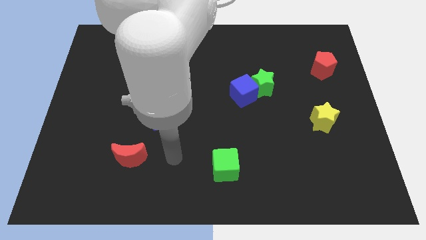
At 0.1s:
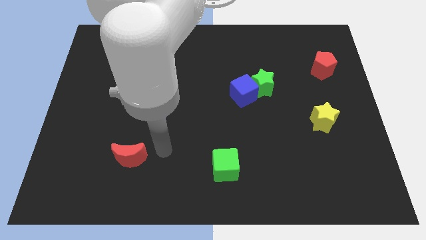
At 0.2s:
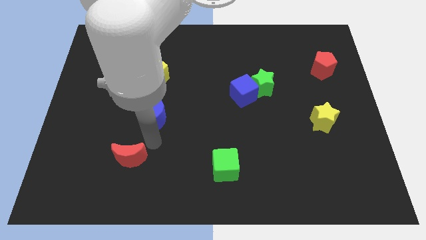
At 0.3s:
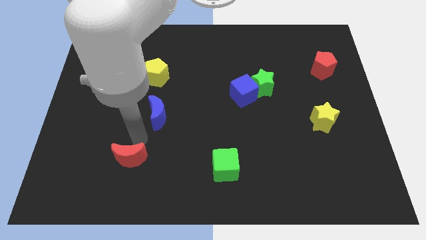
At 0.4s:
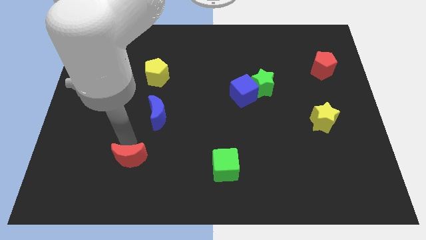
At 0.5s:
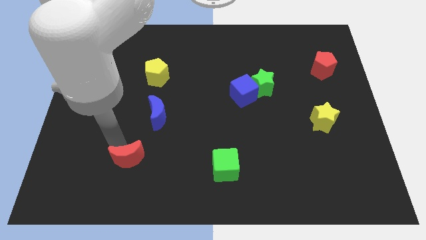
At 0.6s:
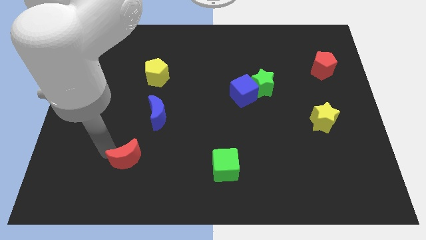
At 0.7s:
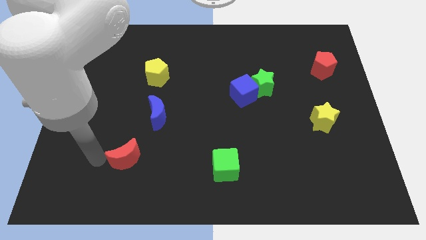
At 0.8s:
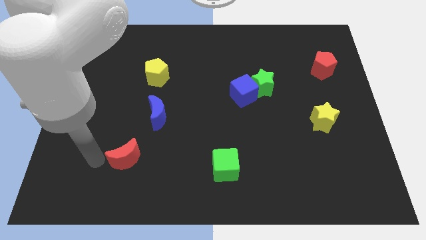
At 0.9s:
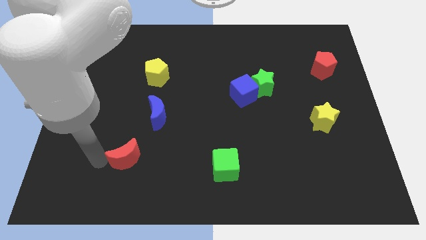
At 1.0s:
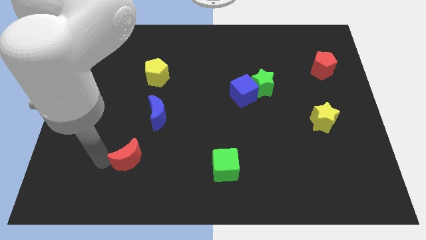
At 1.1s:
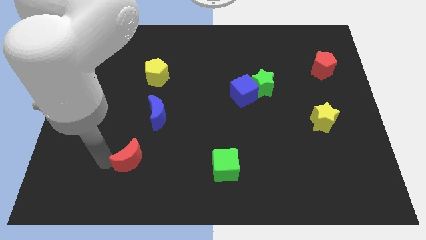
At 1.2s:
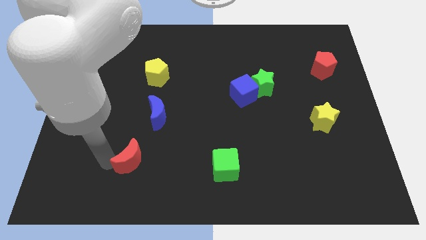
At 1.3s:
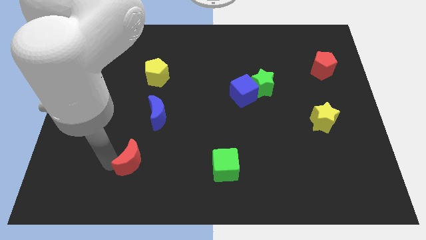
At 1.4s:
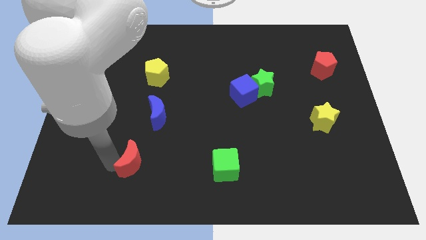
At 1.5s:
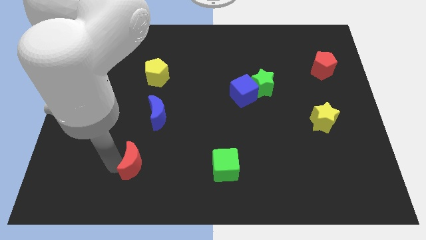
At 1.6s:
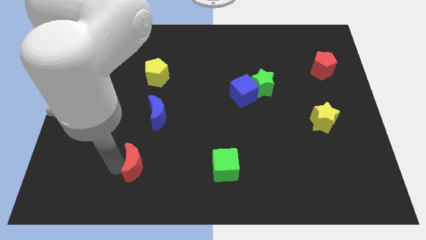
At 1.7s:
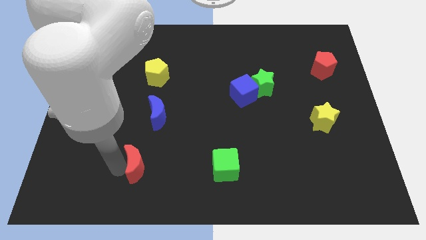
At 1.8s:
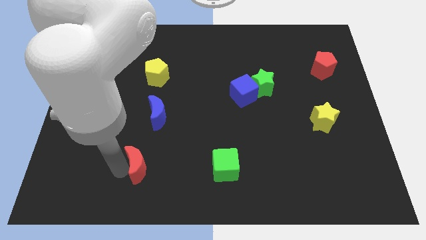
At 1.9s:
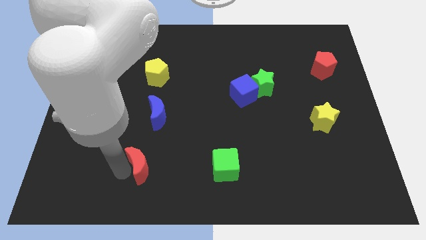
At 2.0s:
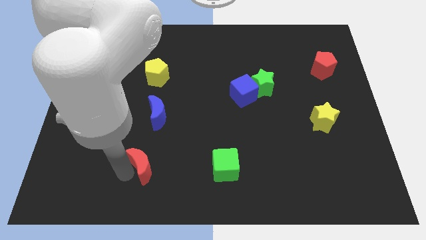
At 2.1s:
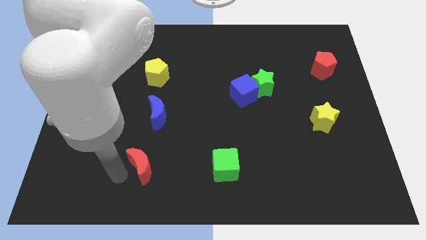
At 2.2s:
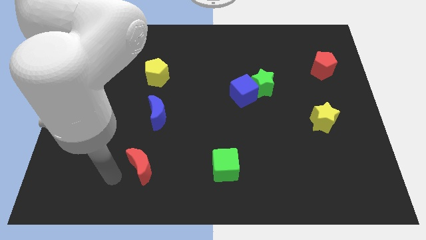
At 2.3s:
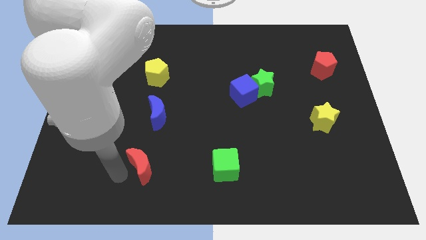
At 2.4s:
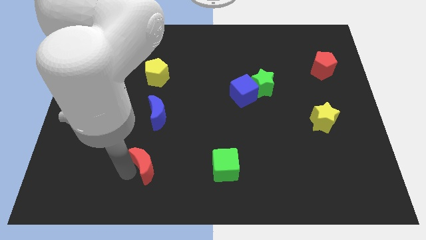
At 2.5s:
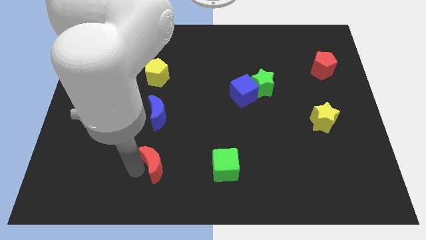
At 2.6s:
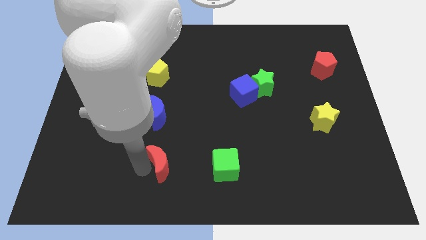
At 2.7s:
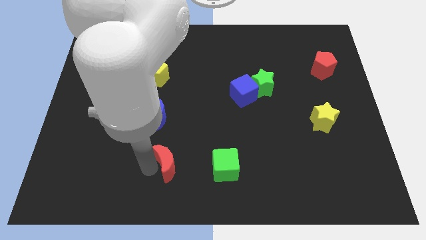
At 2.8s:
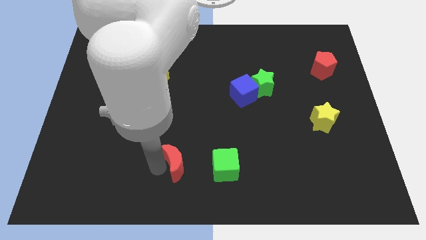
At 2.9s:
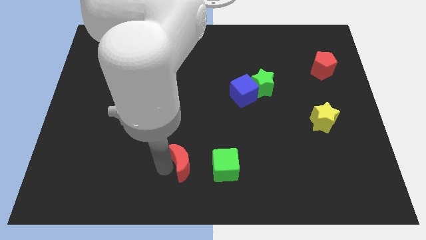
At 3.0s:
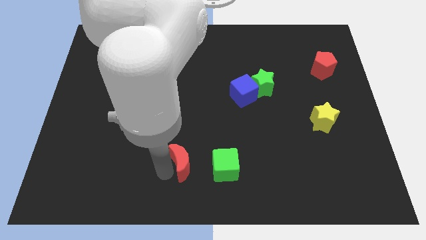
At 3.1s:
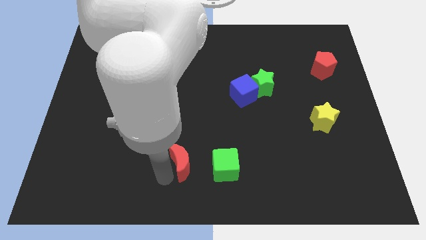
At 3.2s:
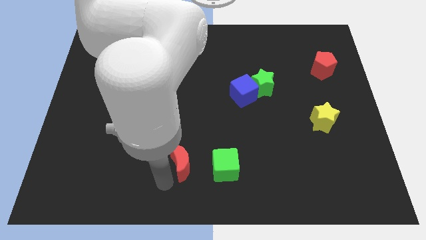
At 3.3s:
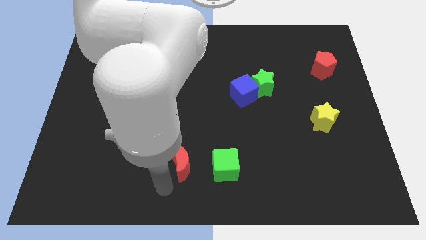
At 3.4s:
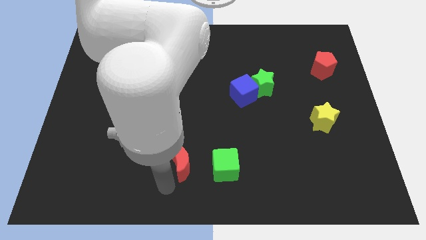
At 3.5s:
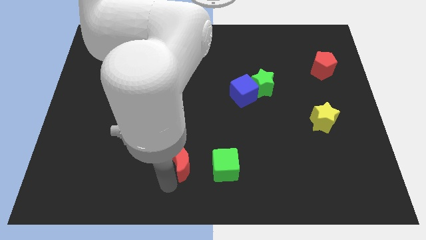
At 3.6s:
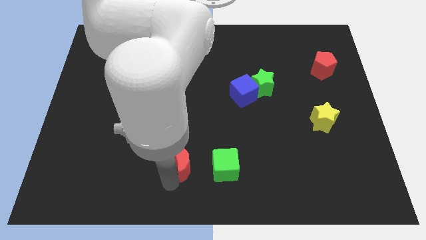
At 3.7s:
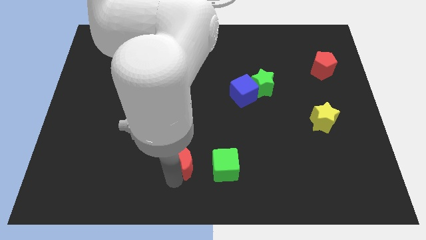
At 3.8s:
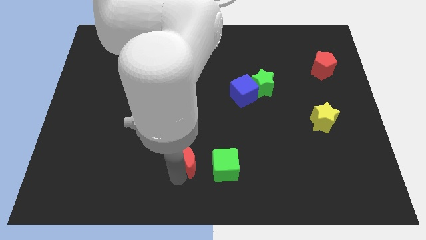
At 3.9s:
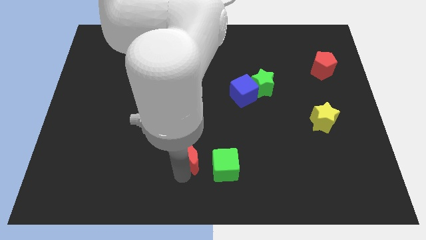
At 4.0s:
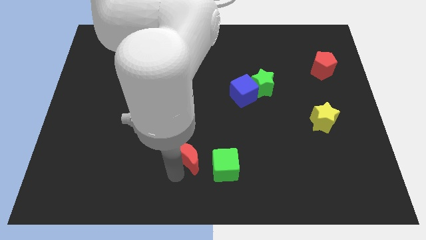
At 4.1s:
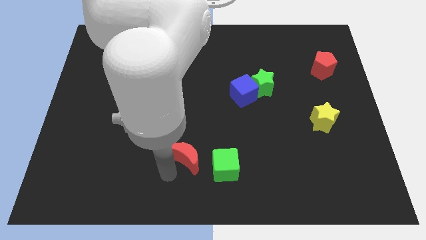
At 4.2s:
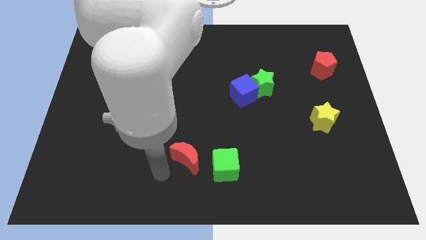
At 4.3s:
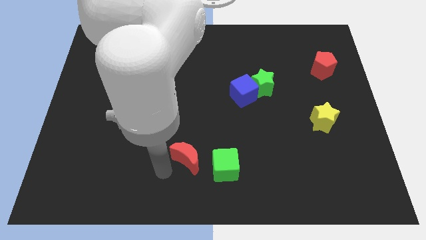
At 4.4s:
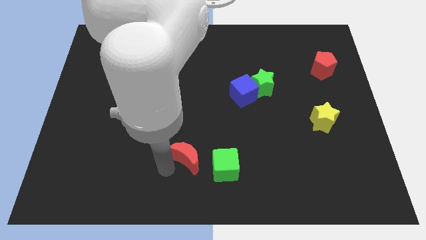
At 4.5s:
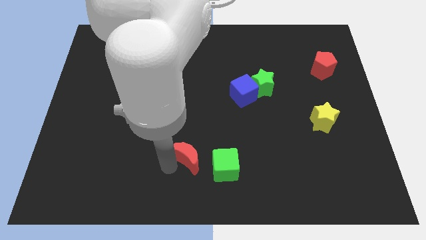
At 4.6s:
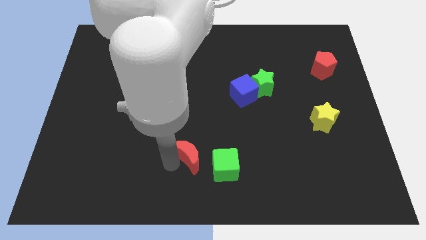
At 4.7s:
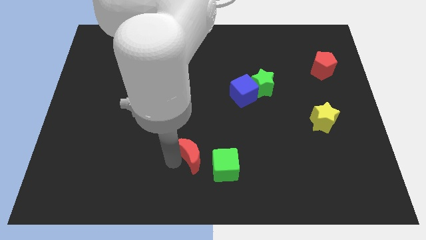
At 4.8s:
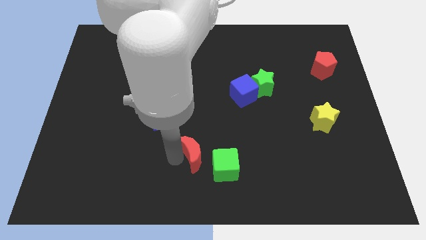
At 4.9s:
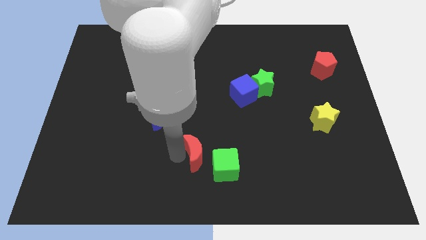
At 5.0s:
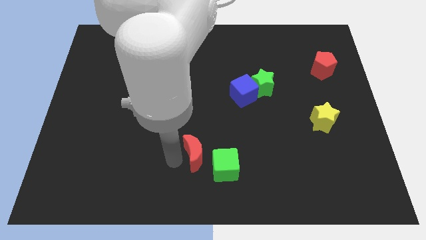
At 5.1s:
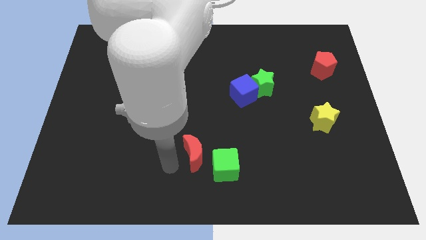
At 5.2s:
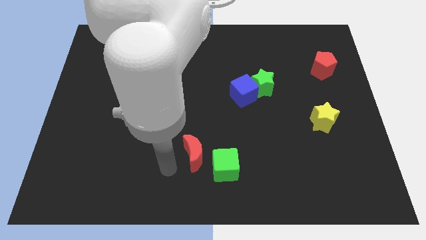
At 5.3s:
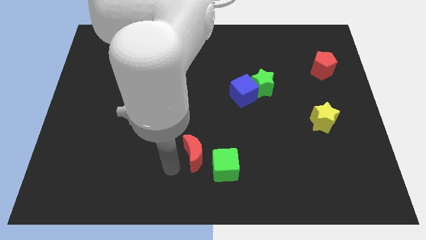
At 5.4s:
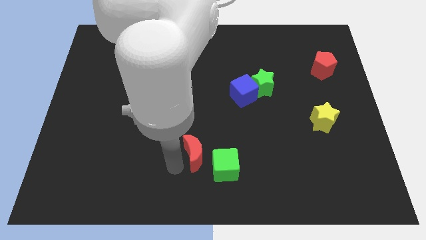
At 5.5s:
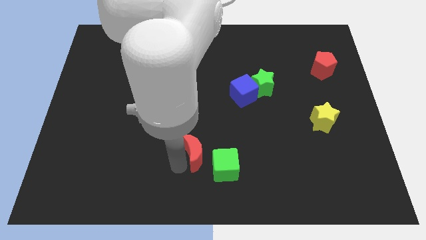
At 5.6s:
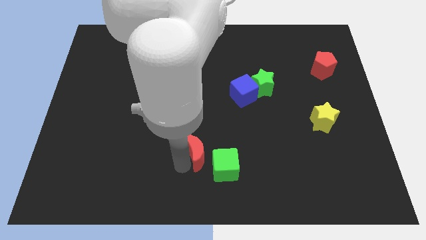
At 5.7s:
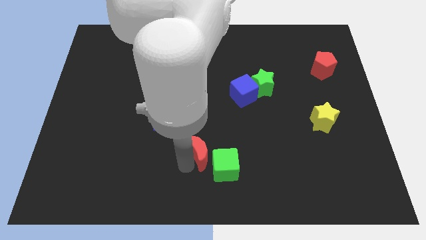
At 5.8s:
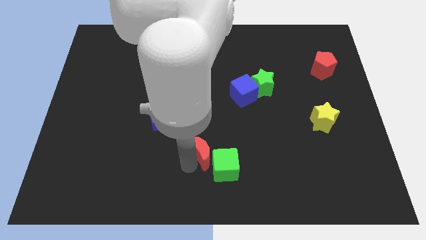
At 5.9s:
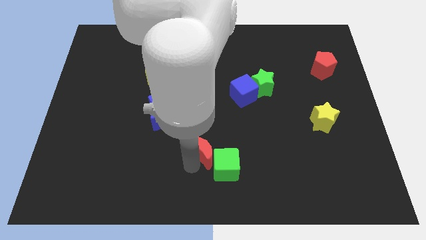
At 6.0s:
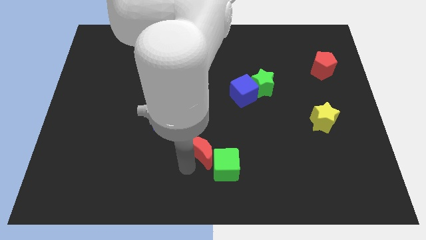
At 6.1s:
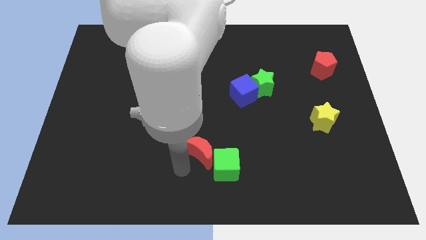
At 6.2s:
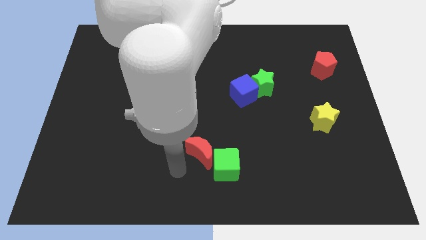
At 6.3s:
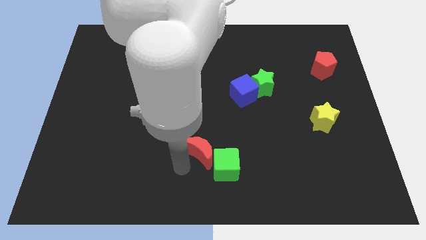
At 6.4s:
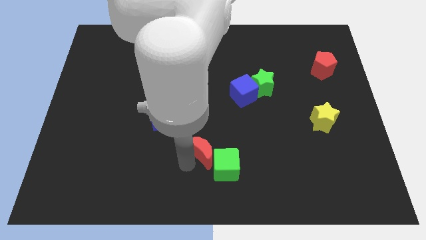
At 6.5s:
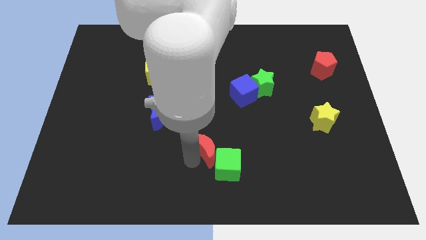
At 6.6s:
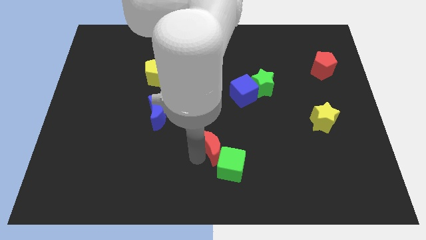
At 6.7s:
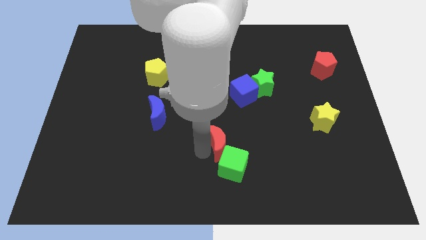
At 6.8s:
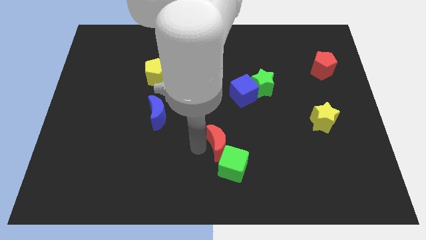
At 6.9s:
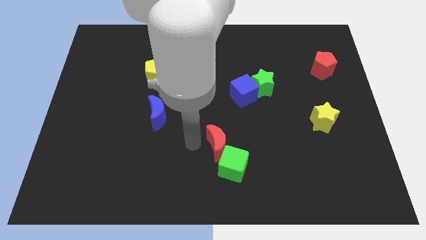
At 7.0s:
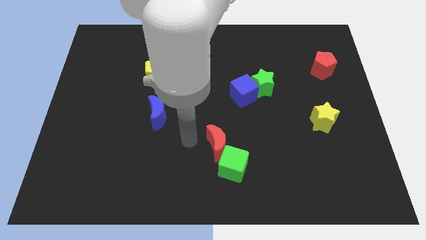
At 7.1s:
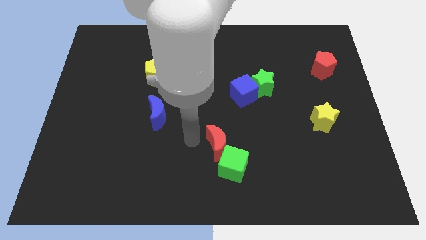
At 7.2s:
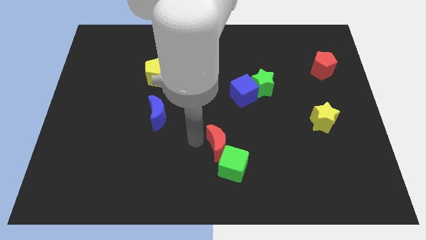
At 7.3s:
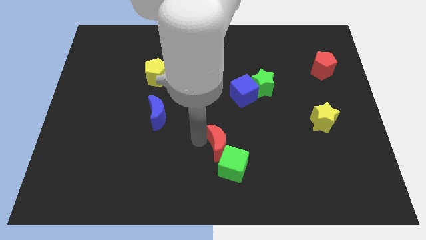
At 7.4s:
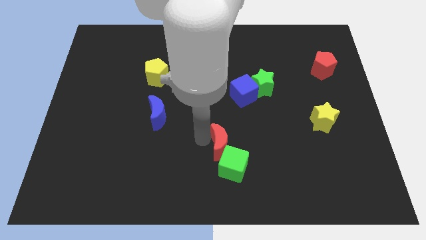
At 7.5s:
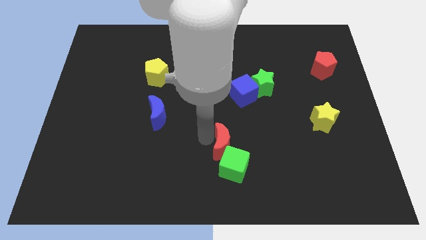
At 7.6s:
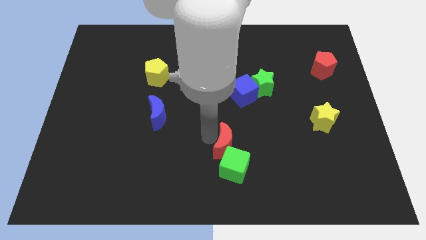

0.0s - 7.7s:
move the red moon to the right

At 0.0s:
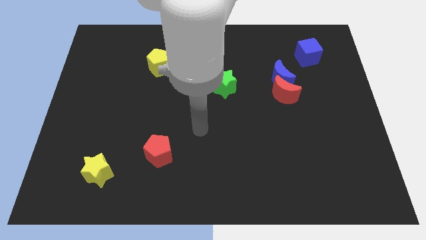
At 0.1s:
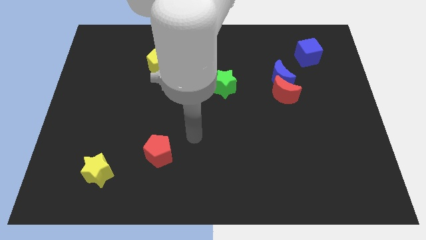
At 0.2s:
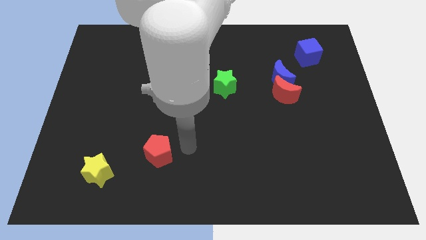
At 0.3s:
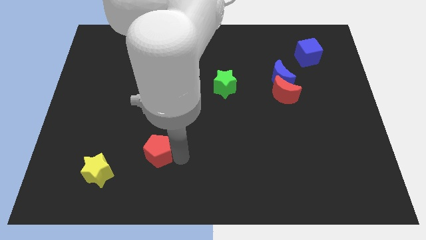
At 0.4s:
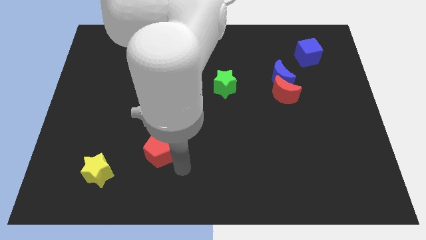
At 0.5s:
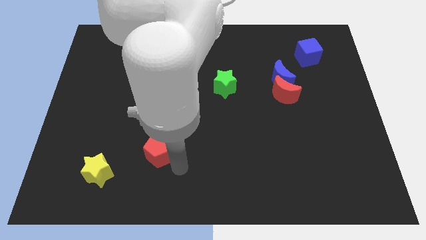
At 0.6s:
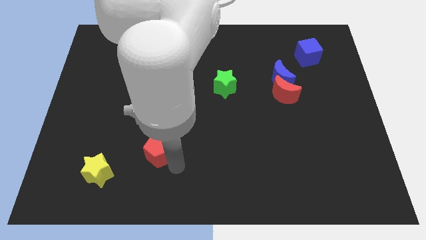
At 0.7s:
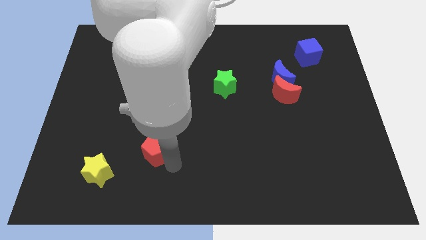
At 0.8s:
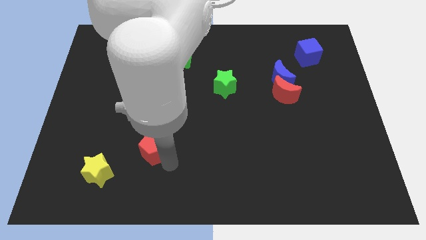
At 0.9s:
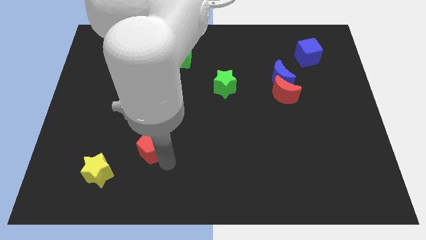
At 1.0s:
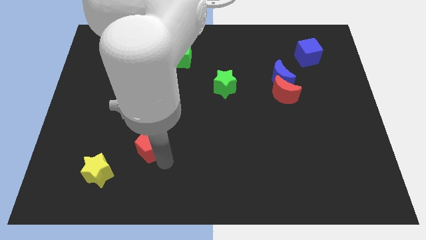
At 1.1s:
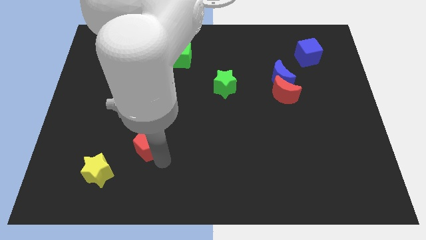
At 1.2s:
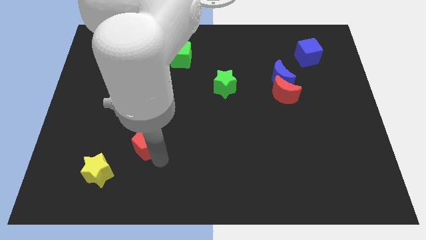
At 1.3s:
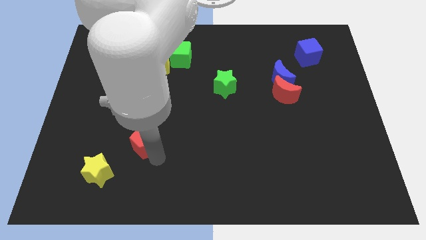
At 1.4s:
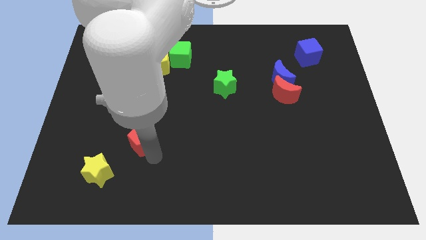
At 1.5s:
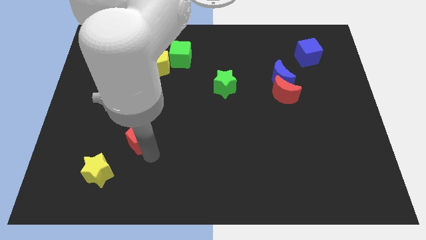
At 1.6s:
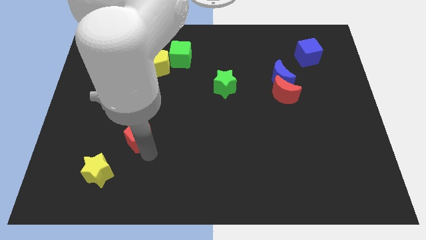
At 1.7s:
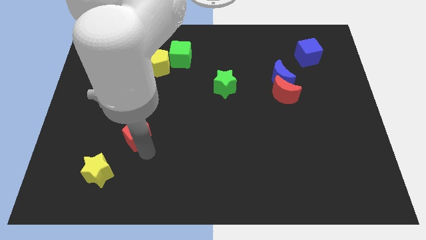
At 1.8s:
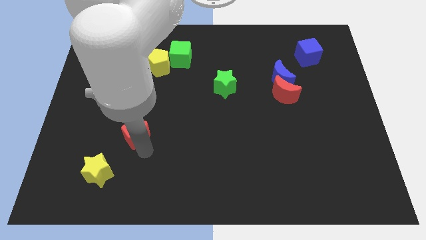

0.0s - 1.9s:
slide the red pentagon a little up and then left
